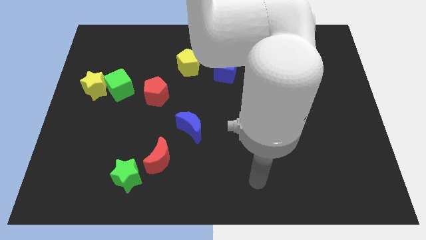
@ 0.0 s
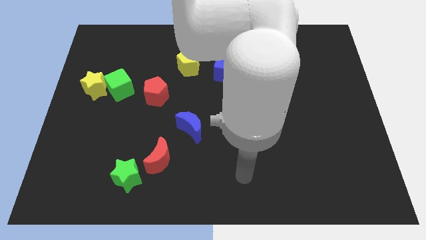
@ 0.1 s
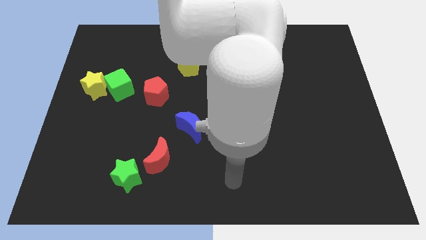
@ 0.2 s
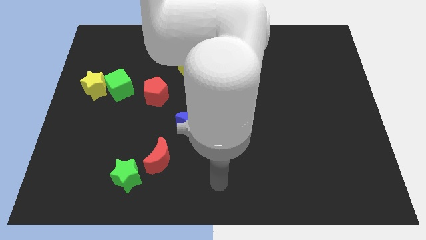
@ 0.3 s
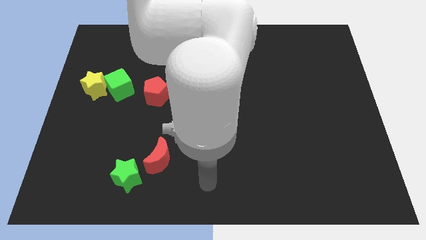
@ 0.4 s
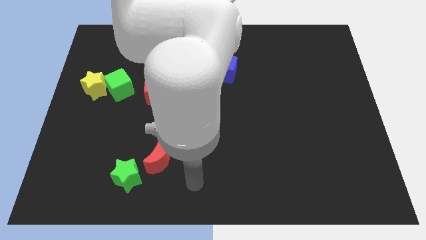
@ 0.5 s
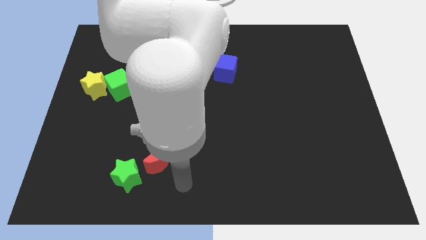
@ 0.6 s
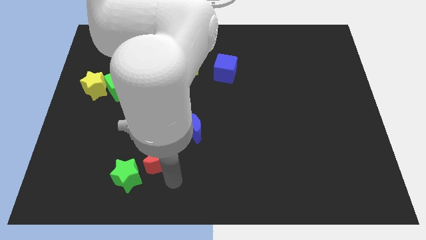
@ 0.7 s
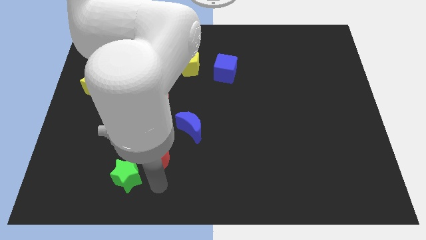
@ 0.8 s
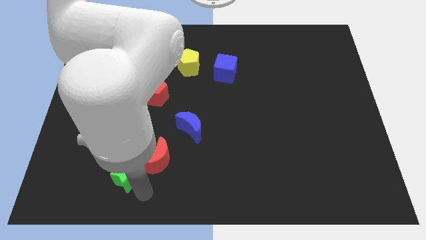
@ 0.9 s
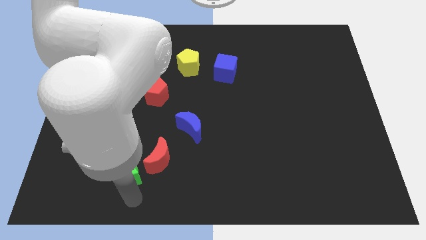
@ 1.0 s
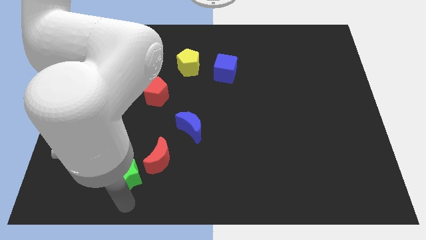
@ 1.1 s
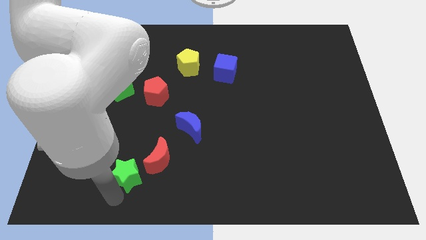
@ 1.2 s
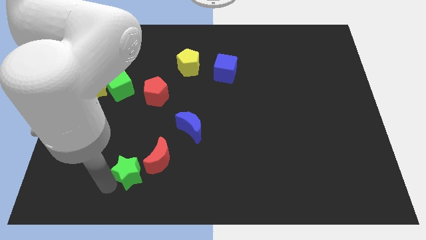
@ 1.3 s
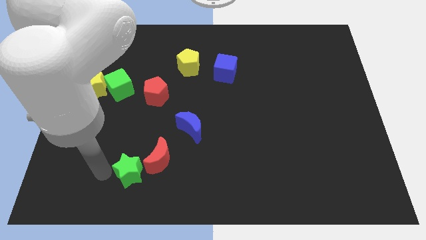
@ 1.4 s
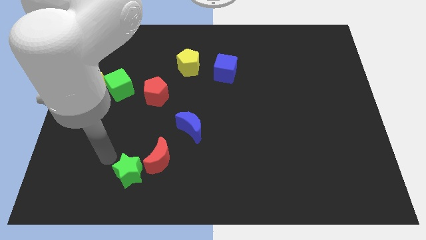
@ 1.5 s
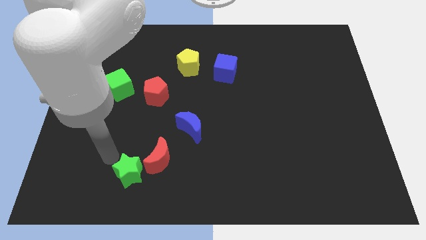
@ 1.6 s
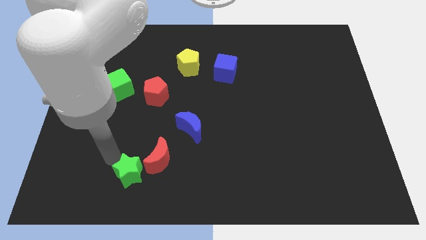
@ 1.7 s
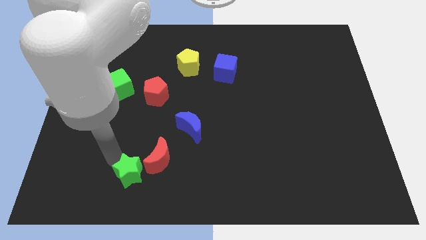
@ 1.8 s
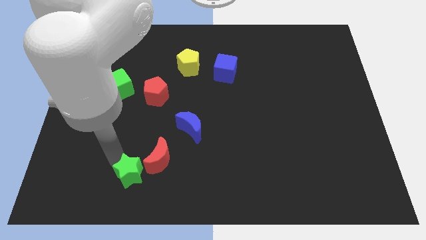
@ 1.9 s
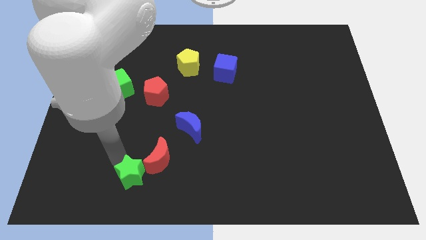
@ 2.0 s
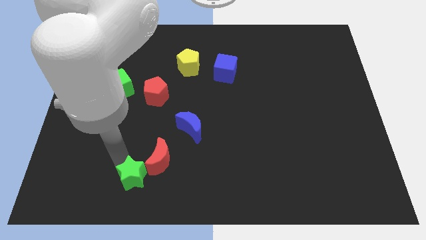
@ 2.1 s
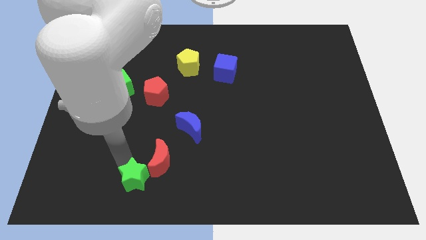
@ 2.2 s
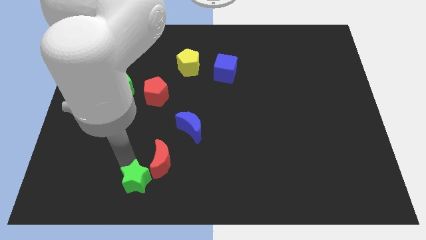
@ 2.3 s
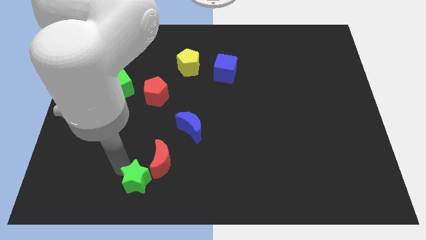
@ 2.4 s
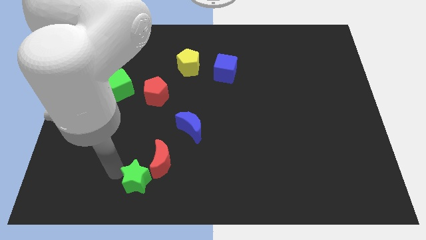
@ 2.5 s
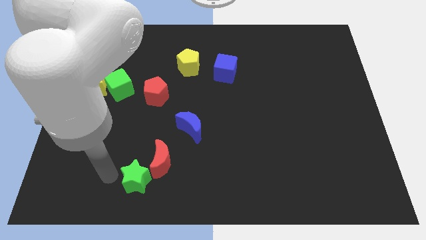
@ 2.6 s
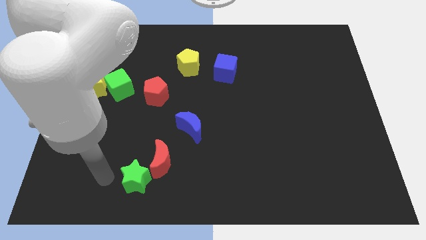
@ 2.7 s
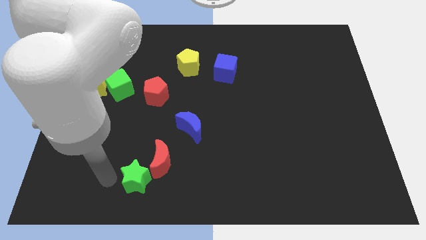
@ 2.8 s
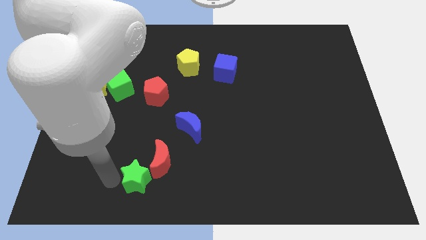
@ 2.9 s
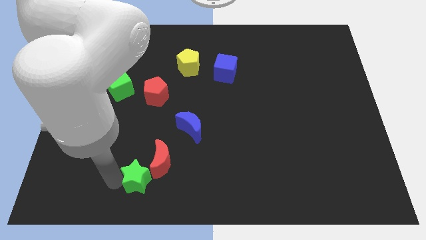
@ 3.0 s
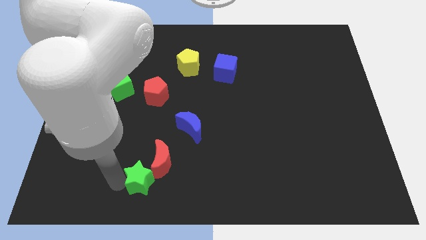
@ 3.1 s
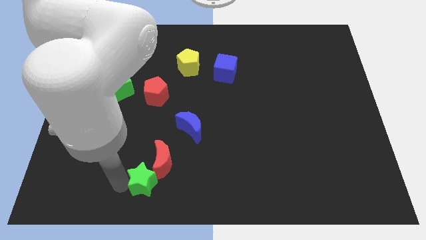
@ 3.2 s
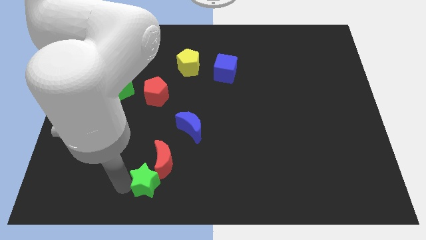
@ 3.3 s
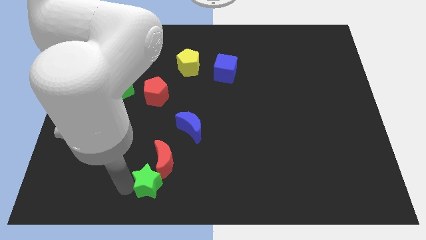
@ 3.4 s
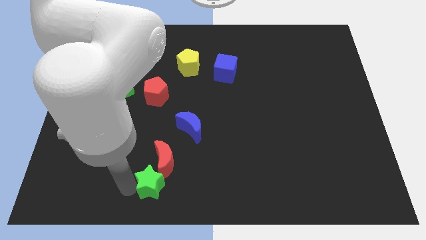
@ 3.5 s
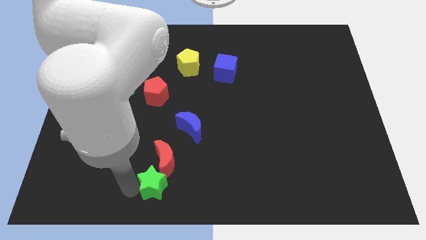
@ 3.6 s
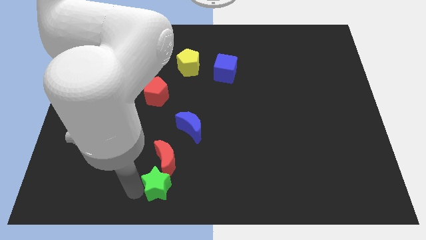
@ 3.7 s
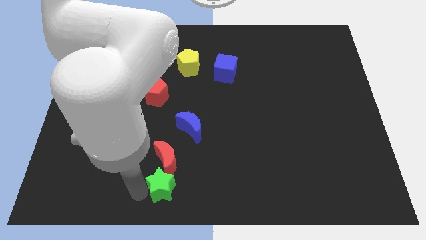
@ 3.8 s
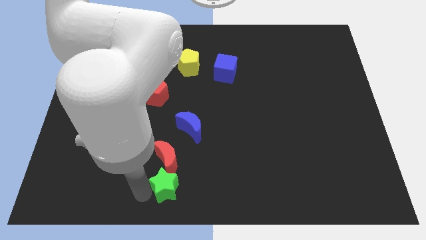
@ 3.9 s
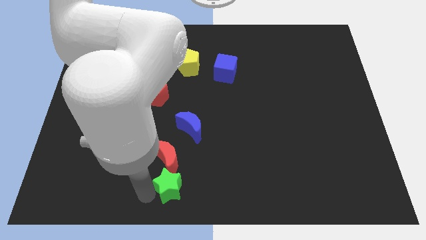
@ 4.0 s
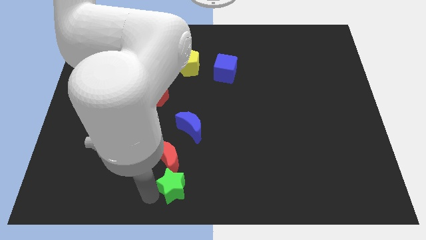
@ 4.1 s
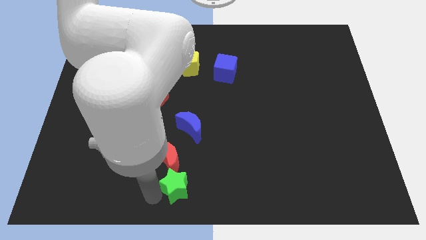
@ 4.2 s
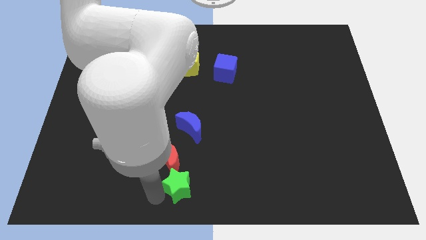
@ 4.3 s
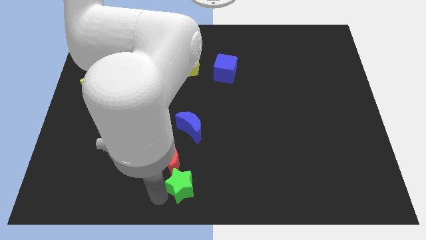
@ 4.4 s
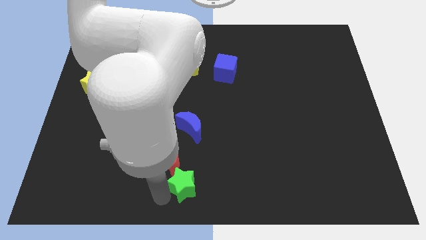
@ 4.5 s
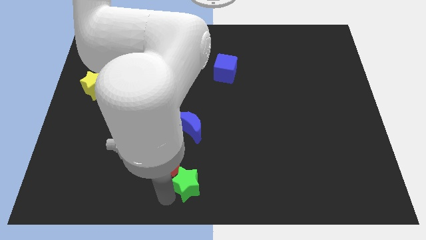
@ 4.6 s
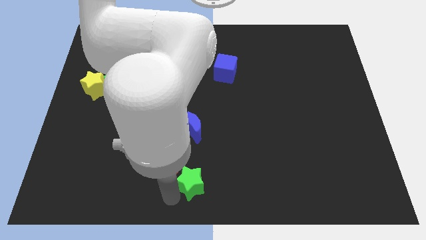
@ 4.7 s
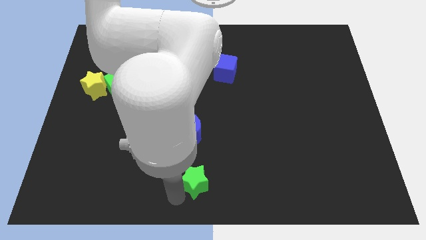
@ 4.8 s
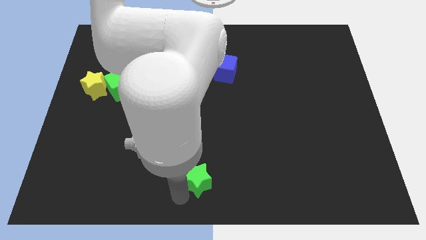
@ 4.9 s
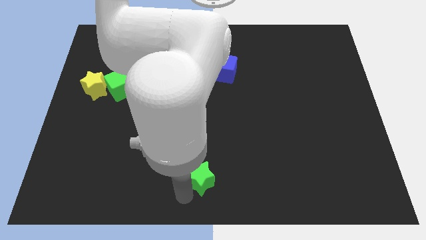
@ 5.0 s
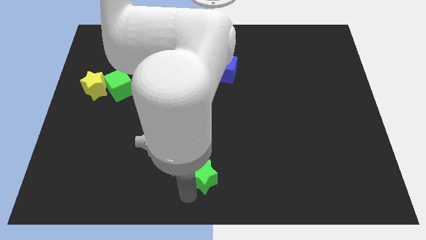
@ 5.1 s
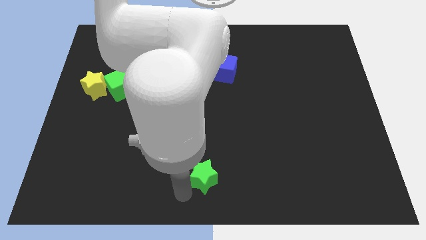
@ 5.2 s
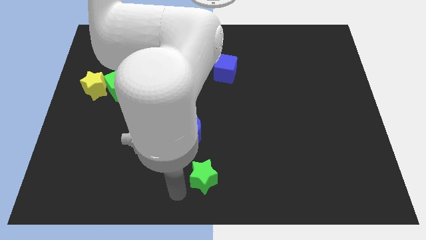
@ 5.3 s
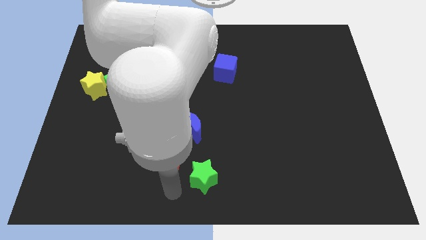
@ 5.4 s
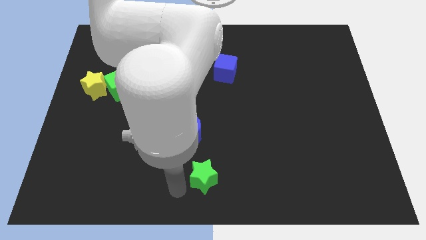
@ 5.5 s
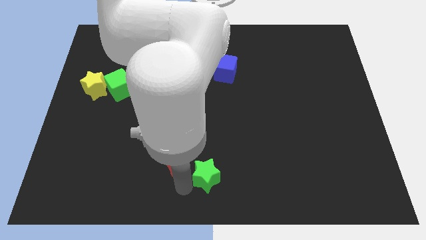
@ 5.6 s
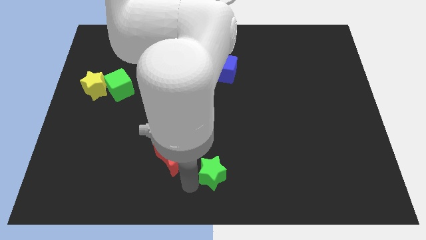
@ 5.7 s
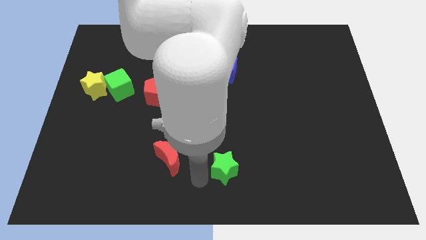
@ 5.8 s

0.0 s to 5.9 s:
push the green star to the right

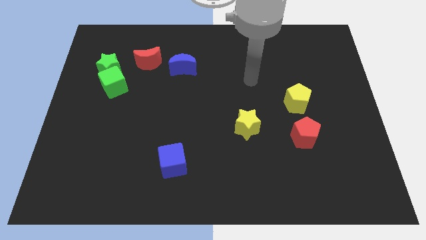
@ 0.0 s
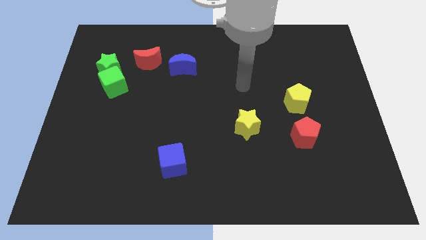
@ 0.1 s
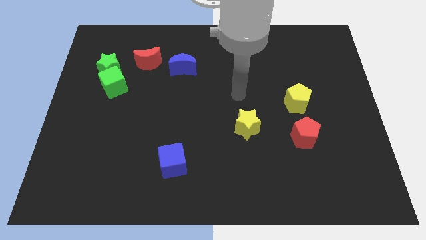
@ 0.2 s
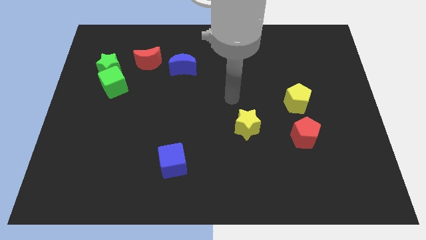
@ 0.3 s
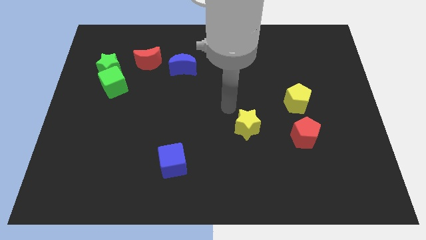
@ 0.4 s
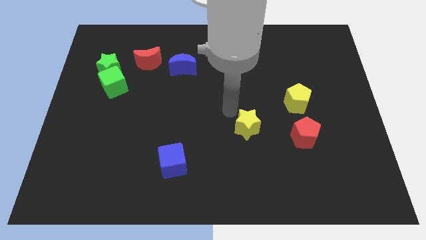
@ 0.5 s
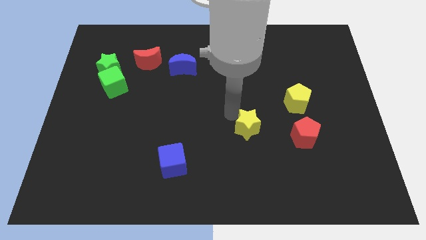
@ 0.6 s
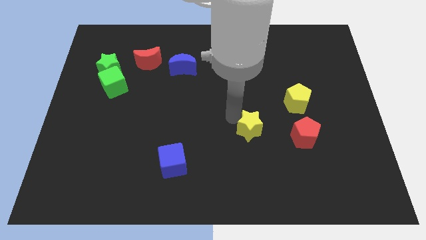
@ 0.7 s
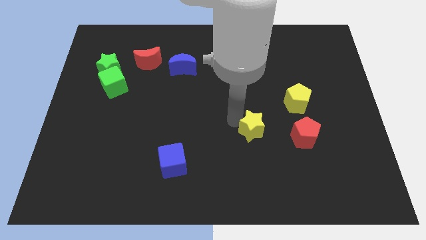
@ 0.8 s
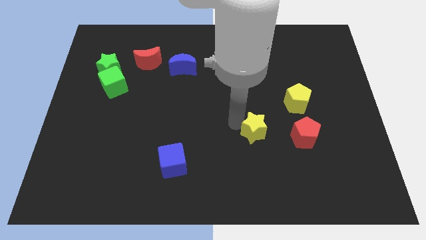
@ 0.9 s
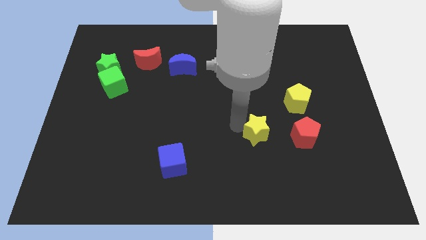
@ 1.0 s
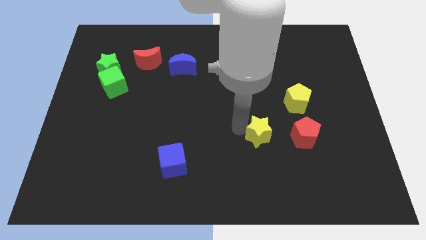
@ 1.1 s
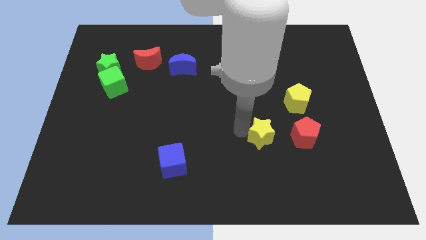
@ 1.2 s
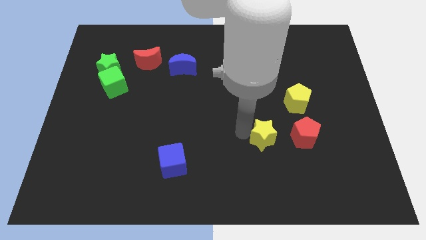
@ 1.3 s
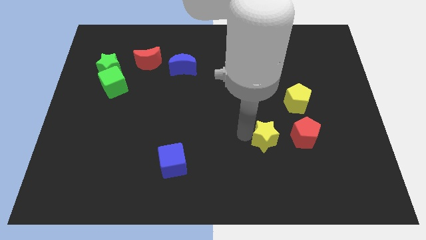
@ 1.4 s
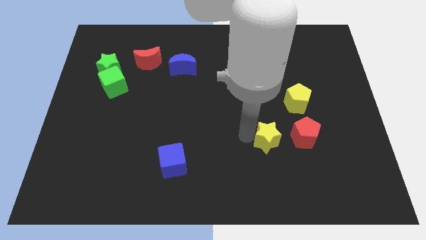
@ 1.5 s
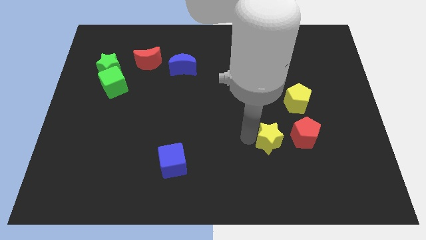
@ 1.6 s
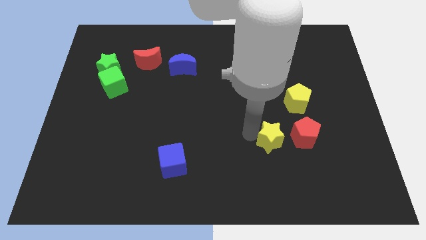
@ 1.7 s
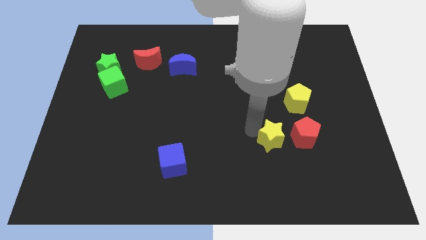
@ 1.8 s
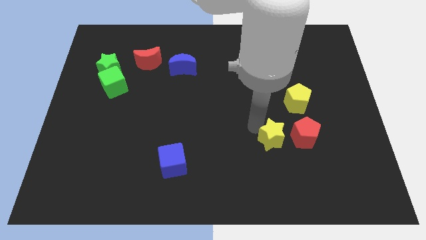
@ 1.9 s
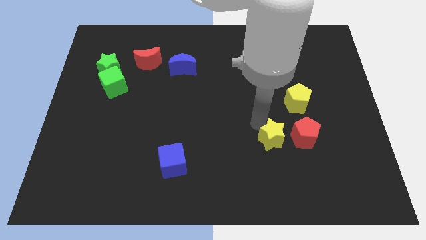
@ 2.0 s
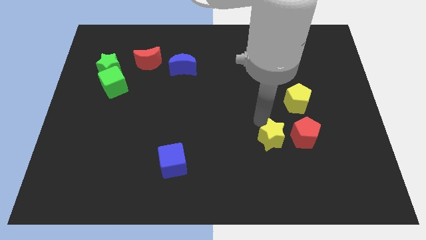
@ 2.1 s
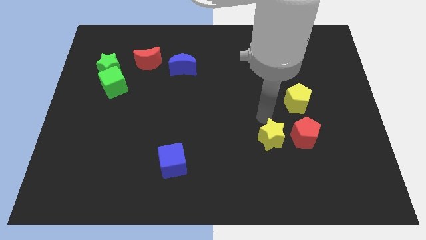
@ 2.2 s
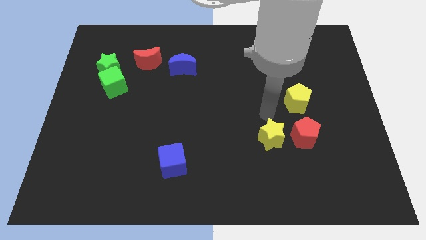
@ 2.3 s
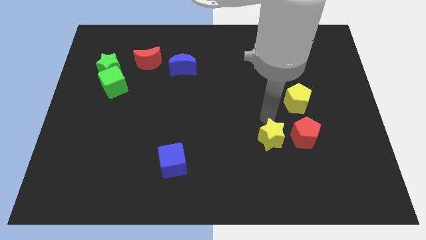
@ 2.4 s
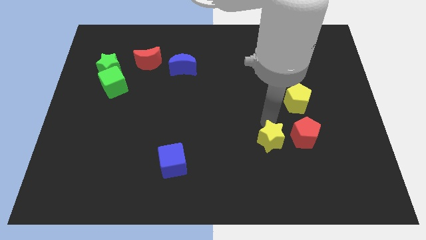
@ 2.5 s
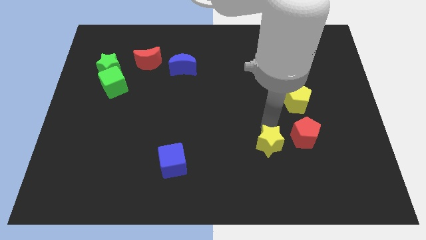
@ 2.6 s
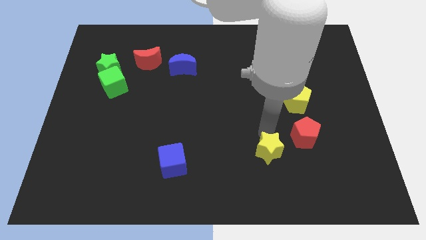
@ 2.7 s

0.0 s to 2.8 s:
move the yellow star down and to the right diagonally a little
